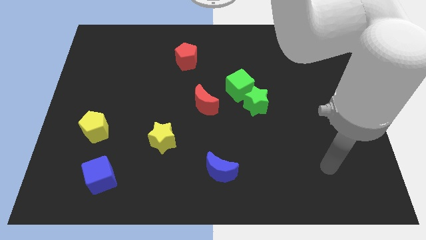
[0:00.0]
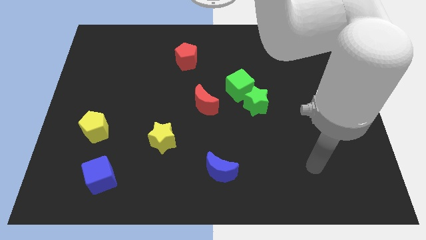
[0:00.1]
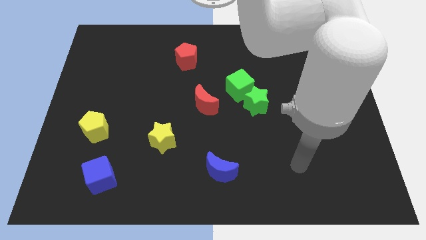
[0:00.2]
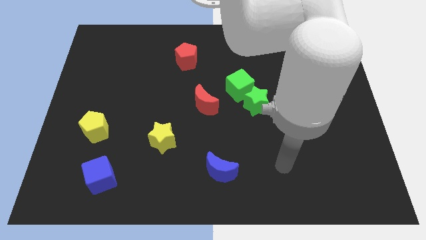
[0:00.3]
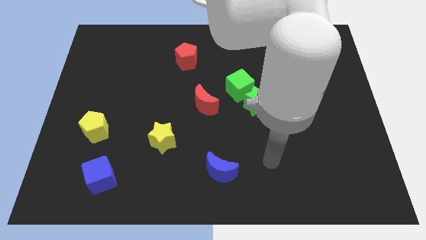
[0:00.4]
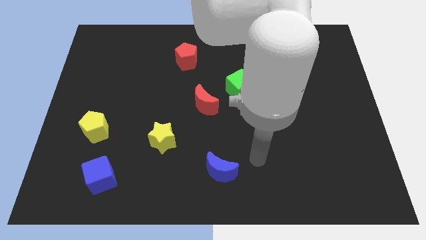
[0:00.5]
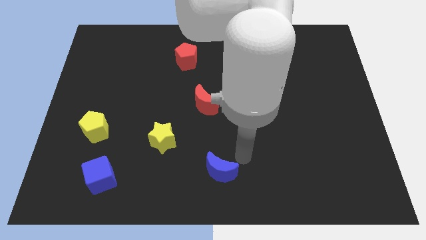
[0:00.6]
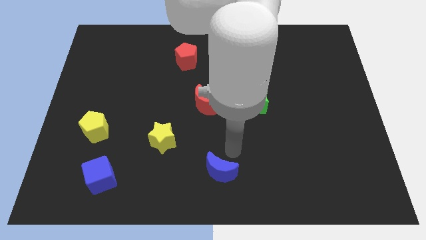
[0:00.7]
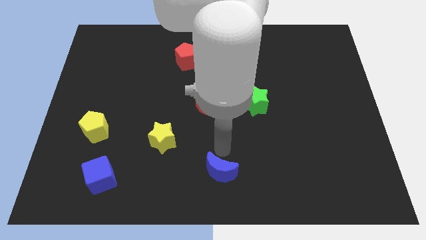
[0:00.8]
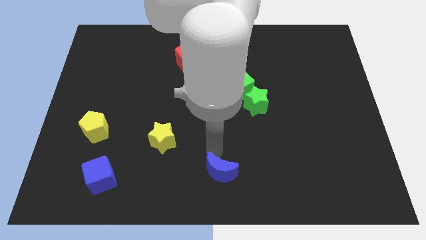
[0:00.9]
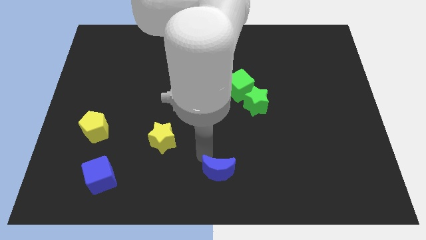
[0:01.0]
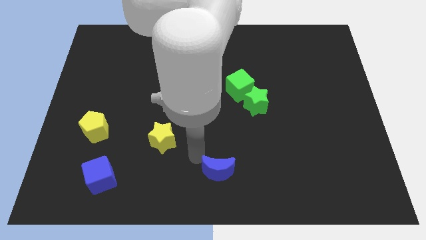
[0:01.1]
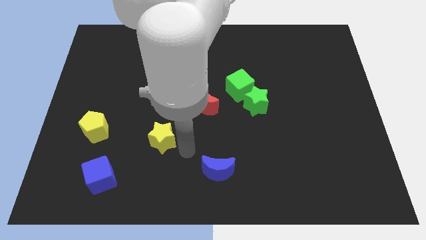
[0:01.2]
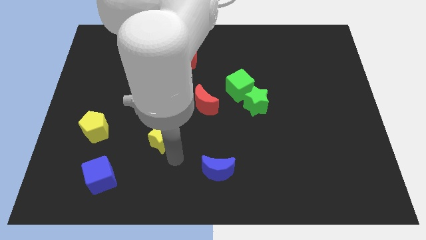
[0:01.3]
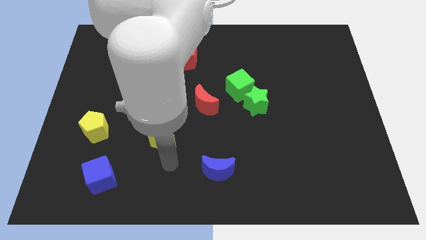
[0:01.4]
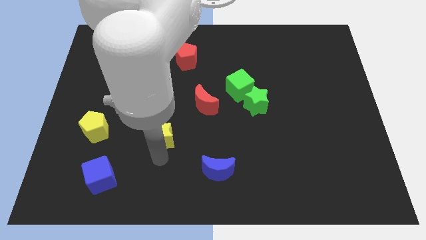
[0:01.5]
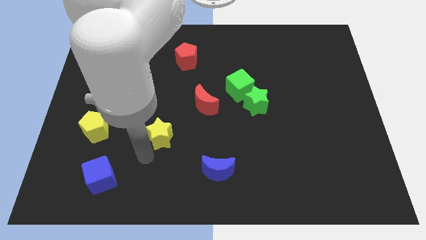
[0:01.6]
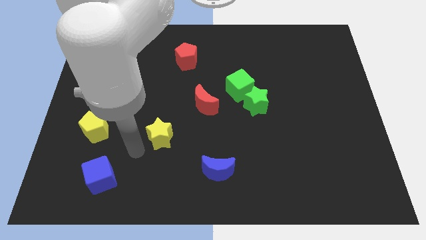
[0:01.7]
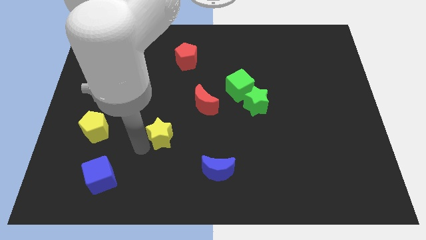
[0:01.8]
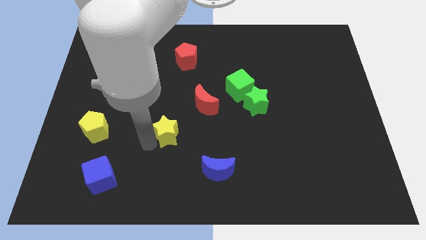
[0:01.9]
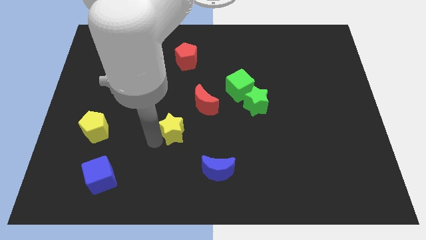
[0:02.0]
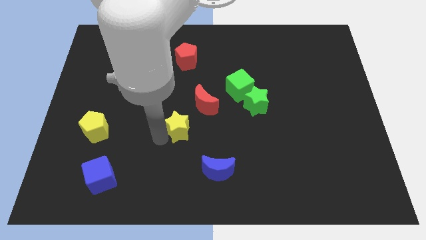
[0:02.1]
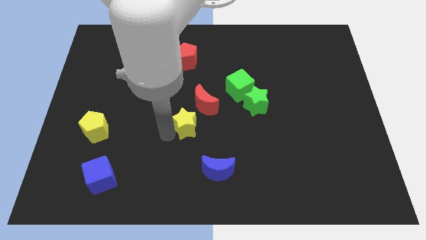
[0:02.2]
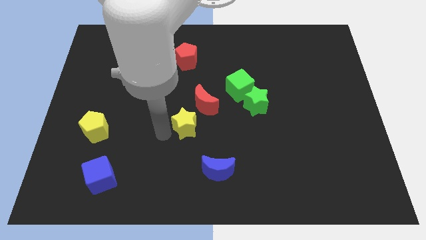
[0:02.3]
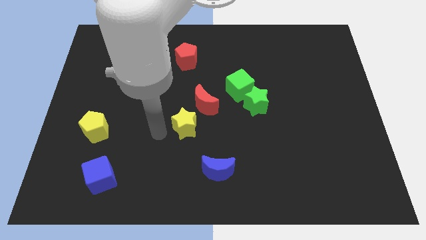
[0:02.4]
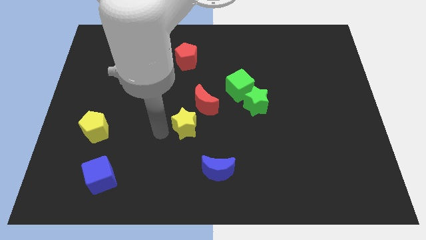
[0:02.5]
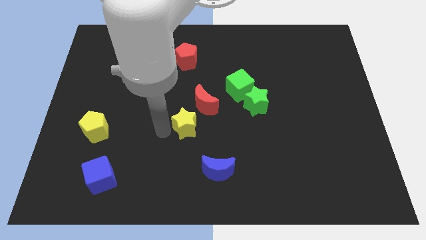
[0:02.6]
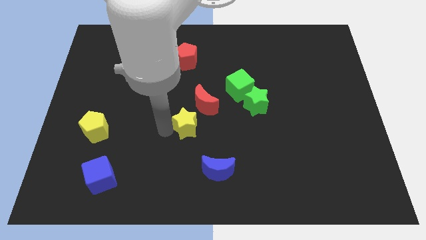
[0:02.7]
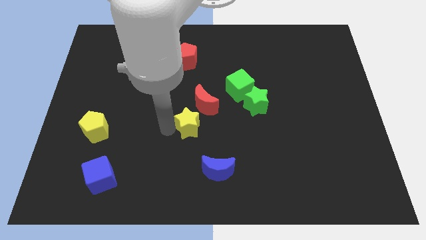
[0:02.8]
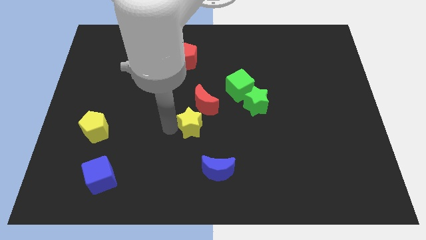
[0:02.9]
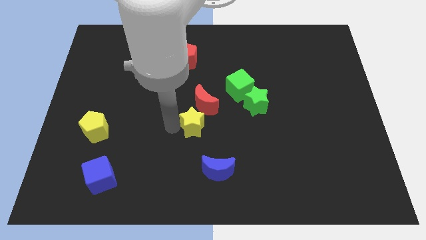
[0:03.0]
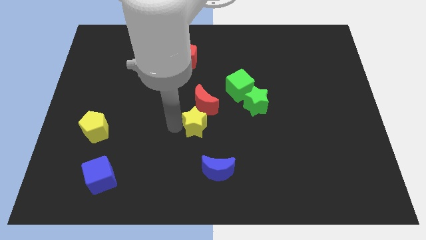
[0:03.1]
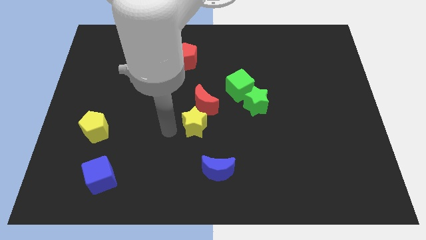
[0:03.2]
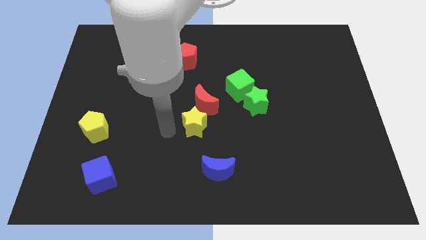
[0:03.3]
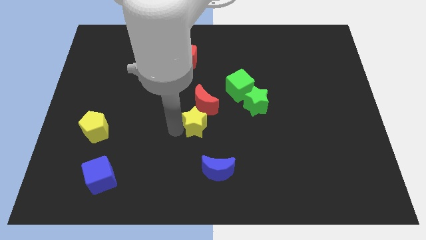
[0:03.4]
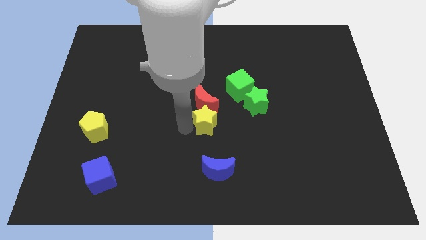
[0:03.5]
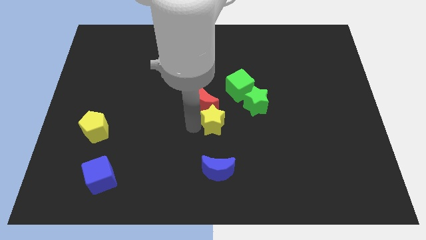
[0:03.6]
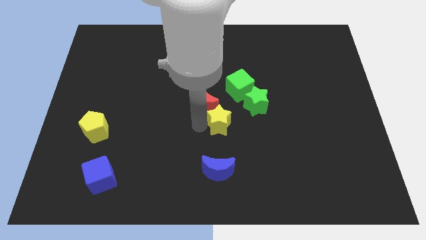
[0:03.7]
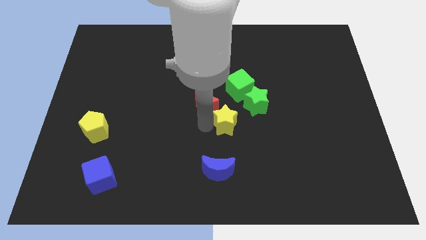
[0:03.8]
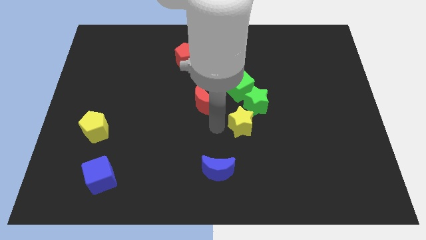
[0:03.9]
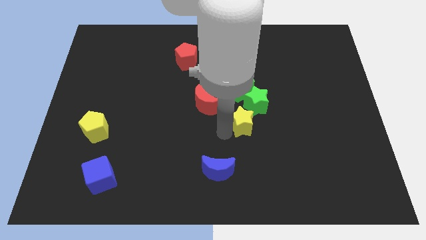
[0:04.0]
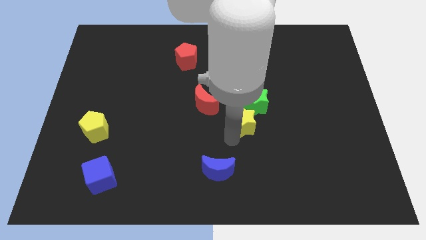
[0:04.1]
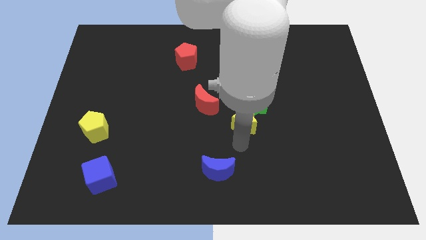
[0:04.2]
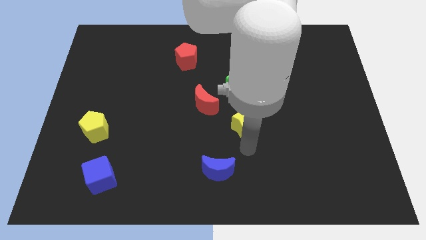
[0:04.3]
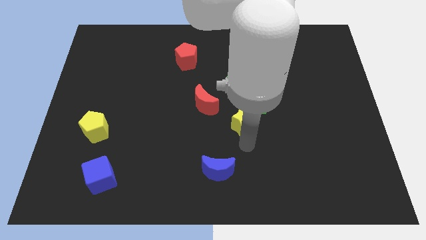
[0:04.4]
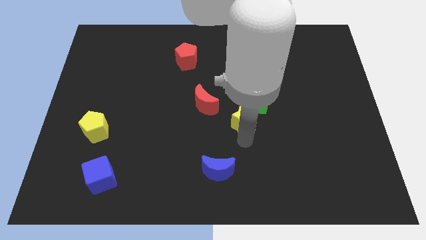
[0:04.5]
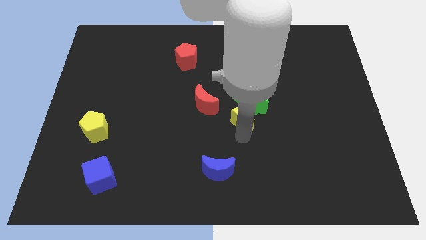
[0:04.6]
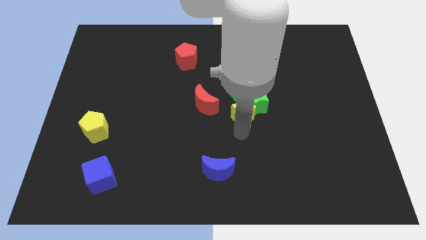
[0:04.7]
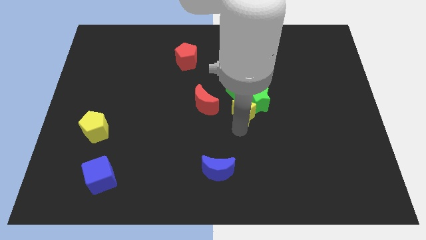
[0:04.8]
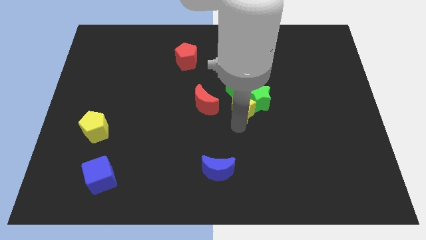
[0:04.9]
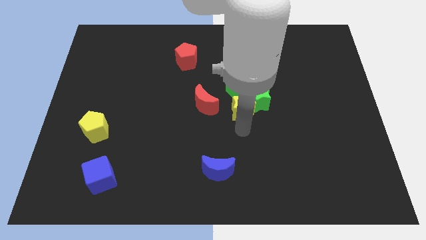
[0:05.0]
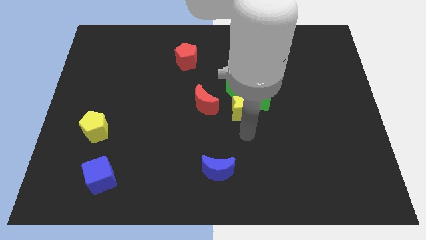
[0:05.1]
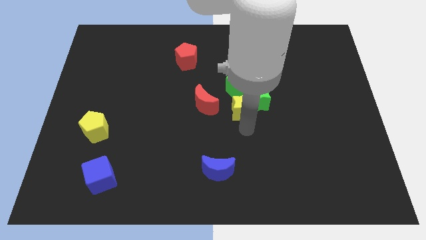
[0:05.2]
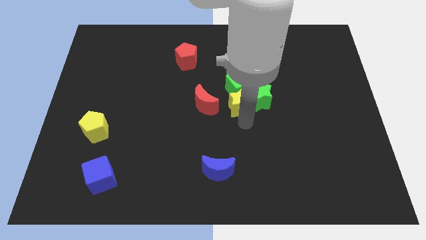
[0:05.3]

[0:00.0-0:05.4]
put the yellow star to the green cube

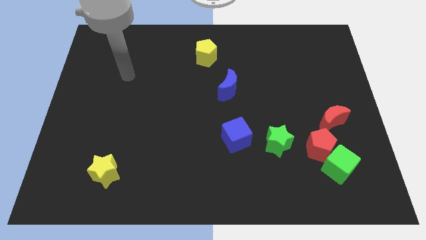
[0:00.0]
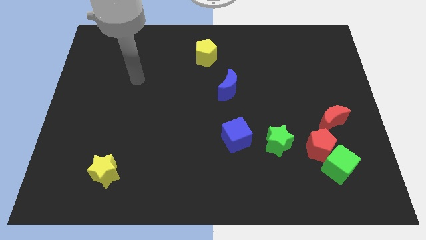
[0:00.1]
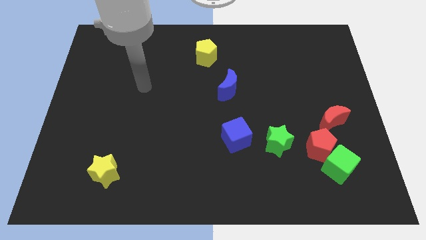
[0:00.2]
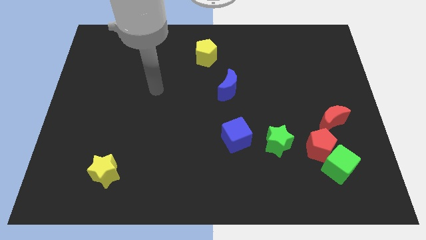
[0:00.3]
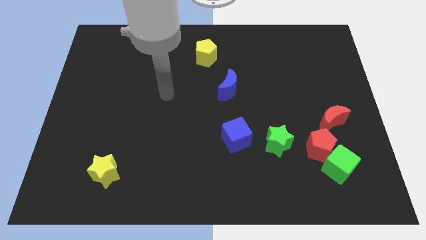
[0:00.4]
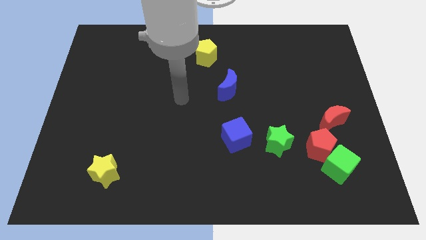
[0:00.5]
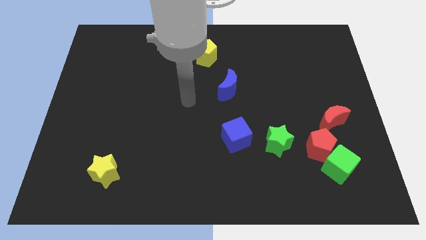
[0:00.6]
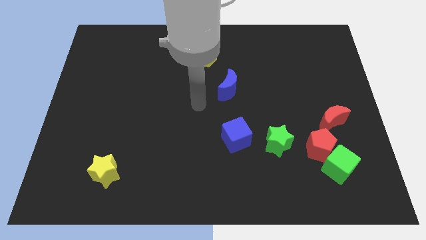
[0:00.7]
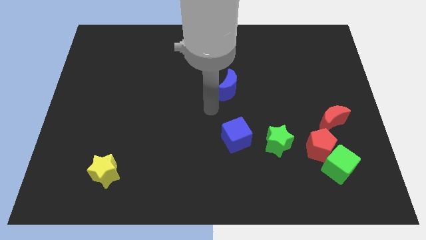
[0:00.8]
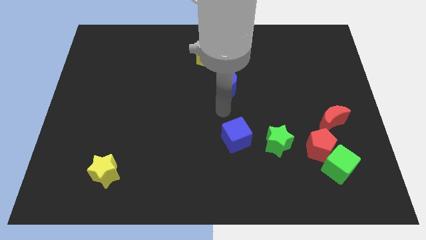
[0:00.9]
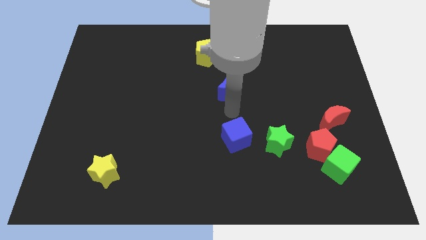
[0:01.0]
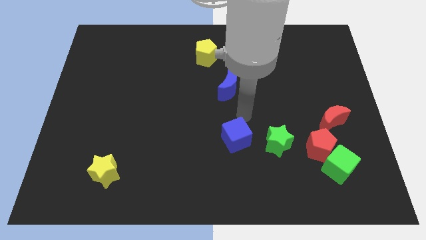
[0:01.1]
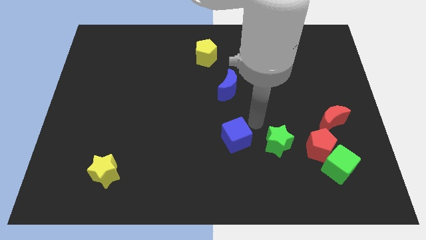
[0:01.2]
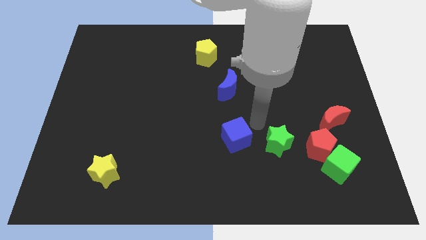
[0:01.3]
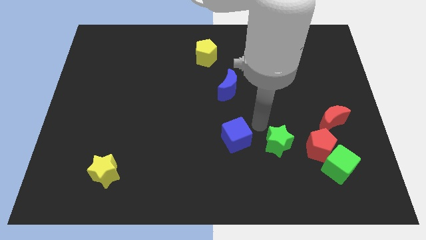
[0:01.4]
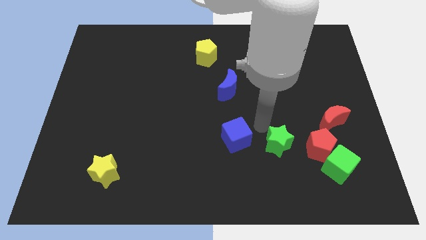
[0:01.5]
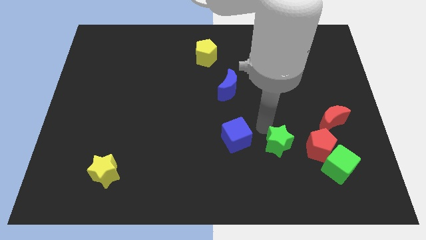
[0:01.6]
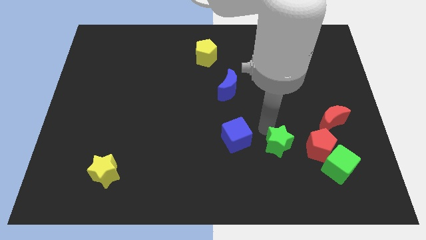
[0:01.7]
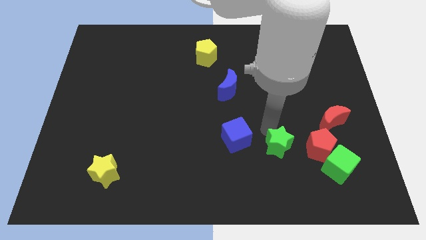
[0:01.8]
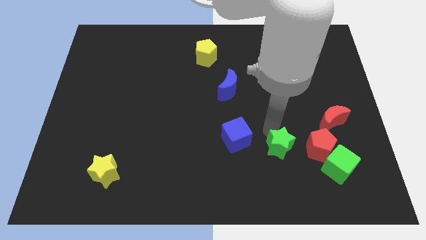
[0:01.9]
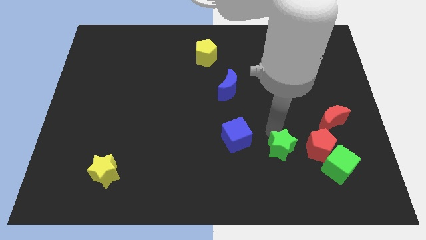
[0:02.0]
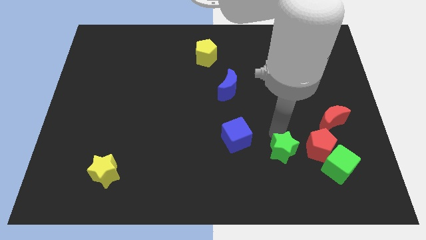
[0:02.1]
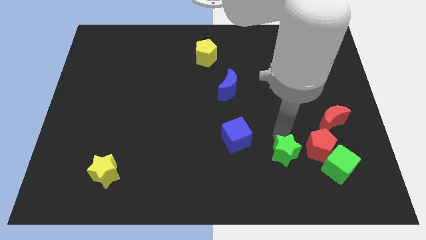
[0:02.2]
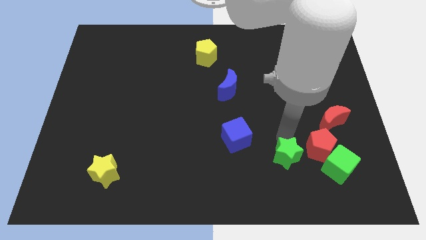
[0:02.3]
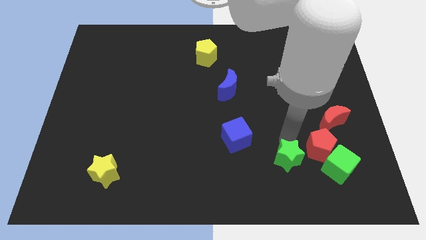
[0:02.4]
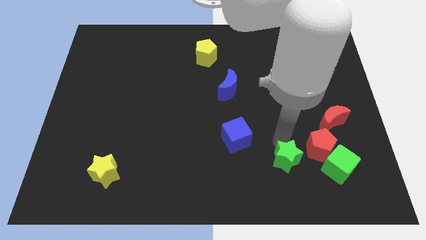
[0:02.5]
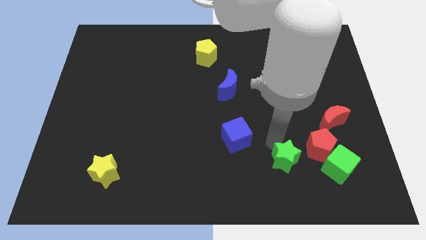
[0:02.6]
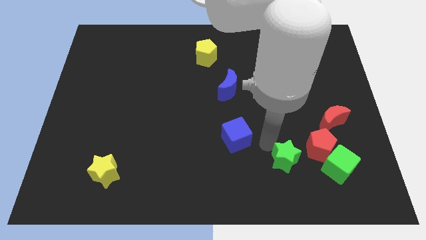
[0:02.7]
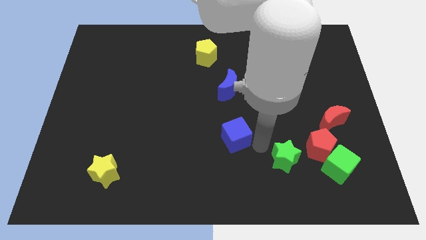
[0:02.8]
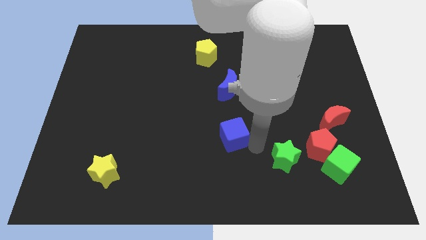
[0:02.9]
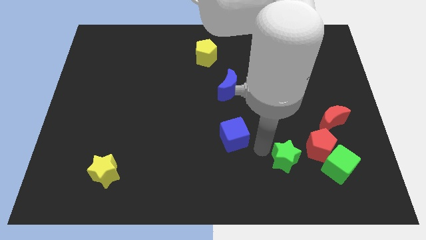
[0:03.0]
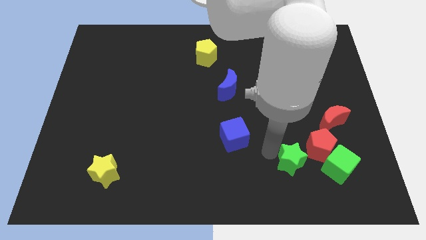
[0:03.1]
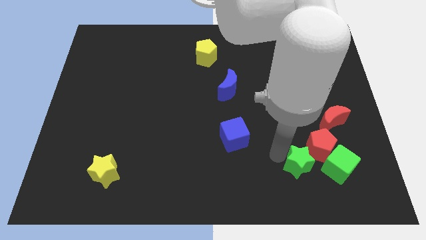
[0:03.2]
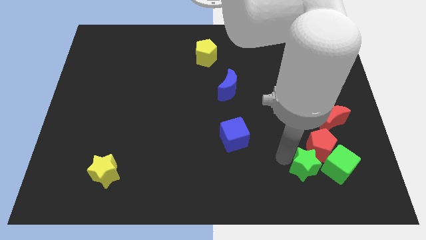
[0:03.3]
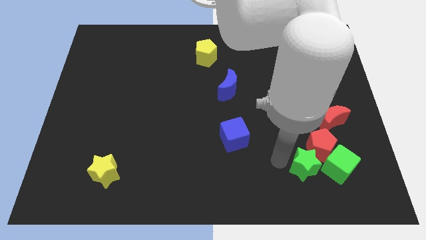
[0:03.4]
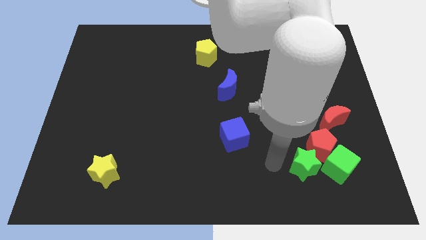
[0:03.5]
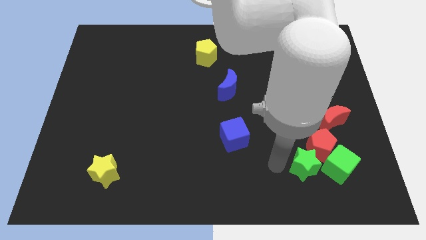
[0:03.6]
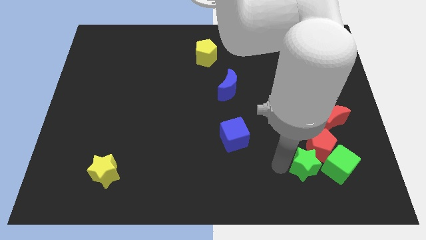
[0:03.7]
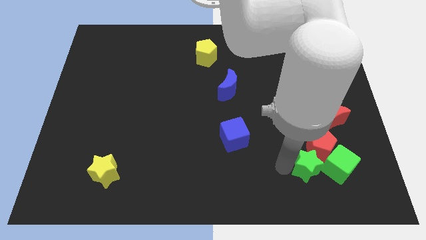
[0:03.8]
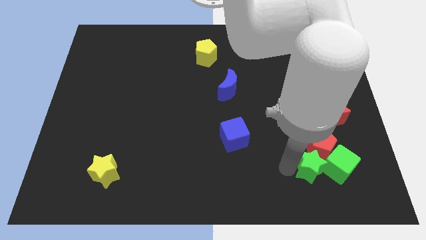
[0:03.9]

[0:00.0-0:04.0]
put the green star towards the green cube
